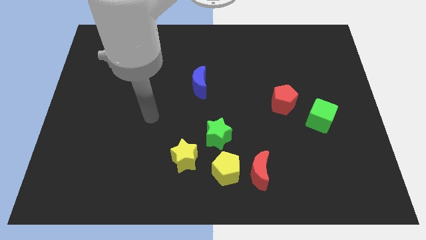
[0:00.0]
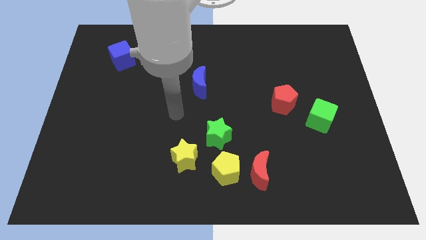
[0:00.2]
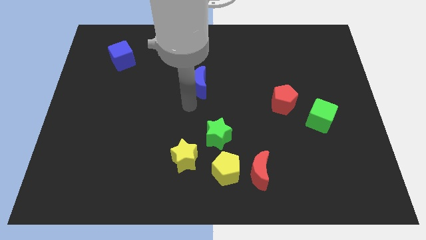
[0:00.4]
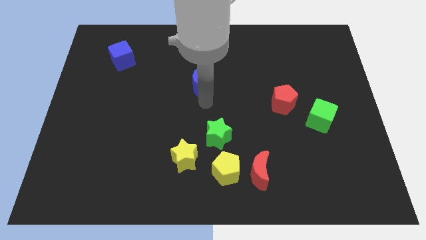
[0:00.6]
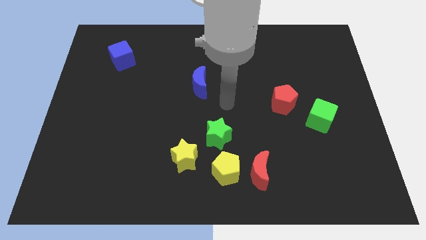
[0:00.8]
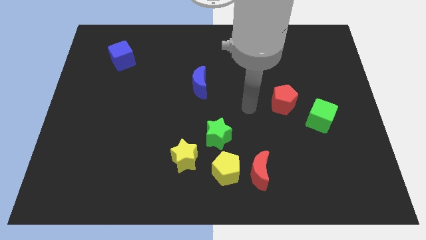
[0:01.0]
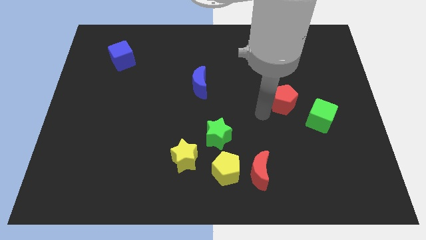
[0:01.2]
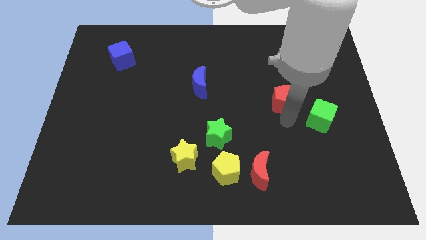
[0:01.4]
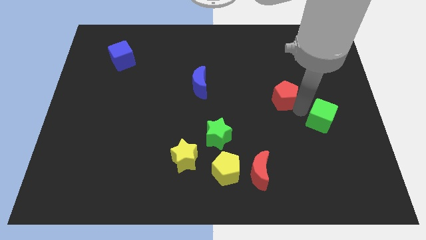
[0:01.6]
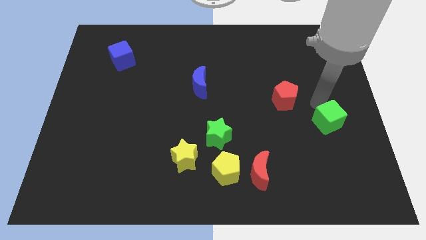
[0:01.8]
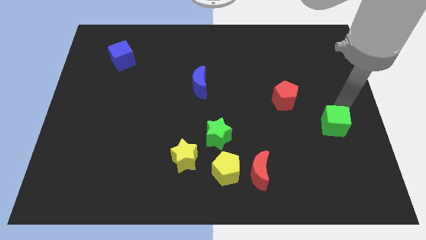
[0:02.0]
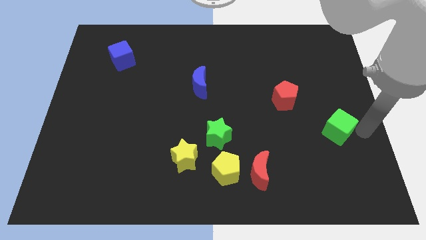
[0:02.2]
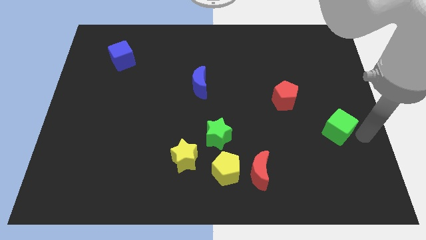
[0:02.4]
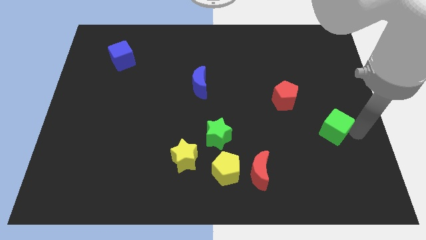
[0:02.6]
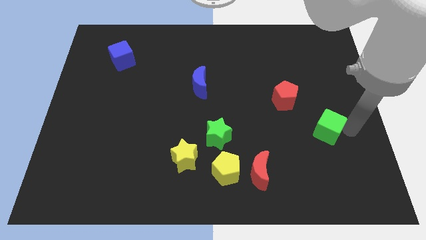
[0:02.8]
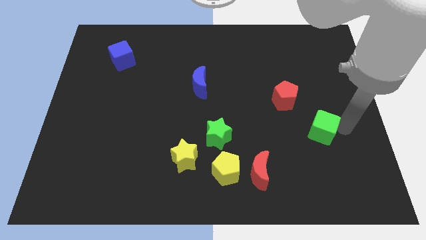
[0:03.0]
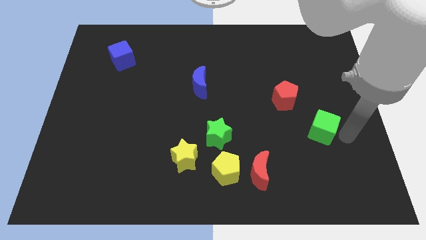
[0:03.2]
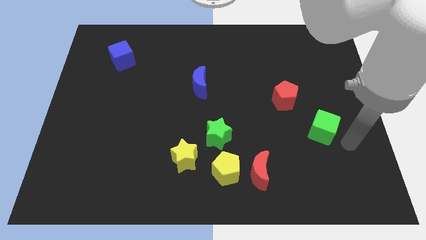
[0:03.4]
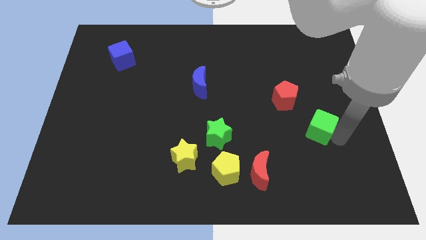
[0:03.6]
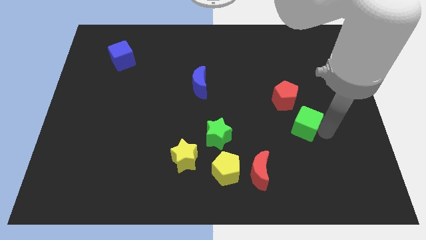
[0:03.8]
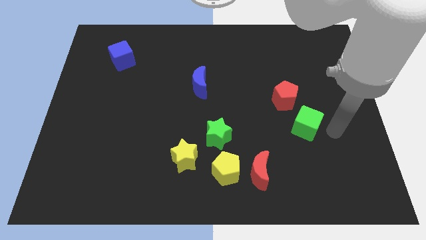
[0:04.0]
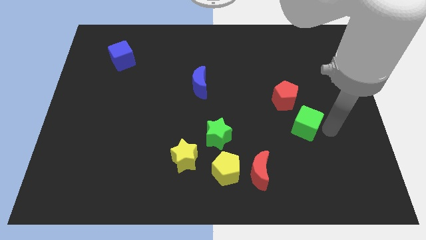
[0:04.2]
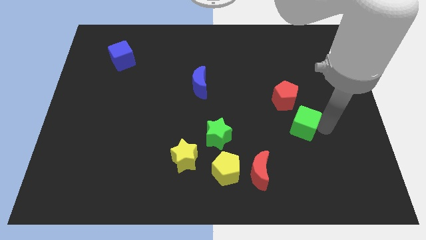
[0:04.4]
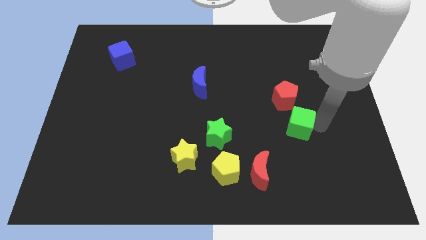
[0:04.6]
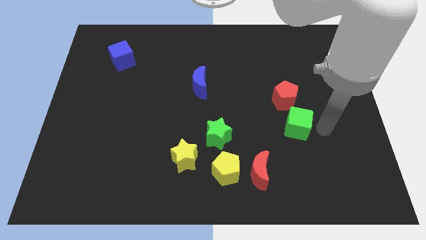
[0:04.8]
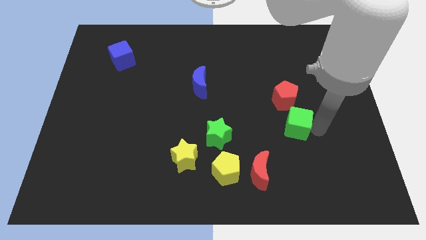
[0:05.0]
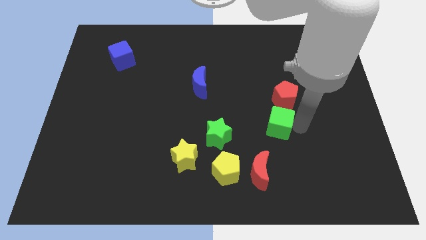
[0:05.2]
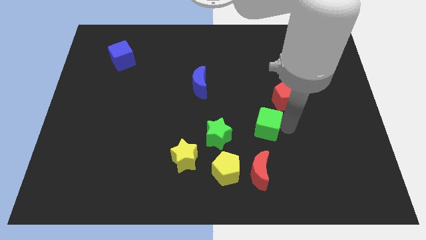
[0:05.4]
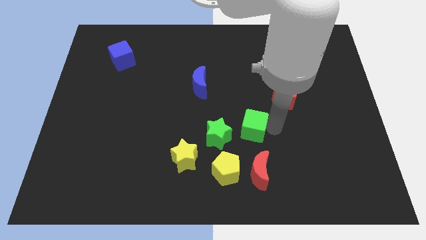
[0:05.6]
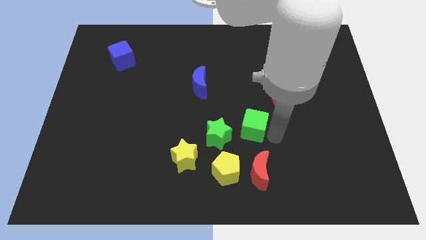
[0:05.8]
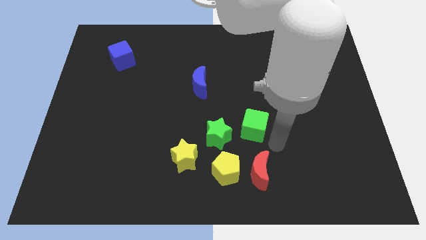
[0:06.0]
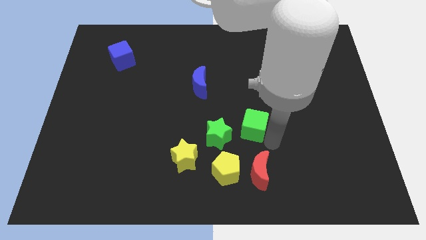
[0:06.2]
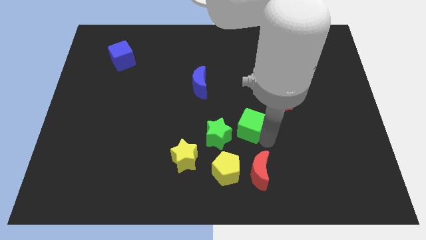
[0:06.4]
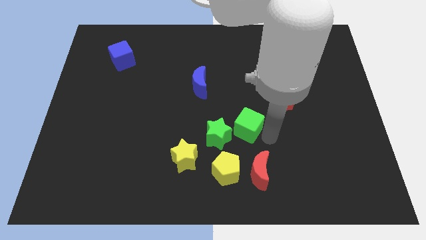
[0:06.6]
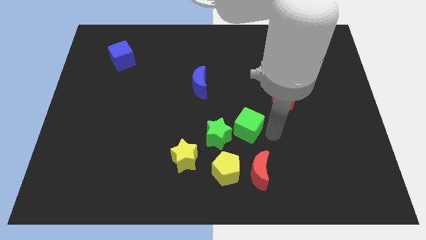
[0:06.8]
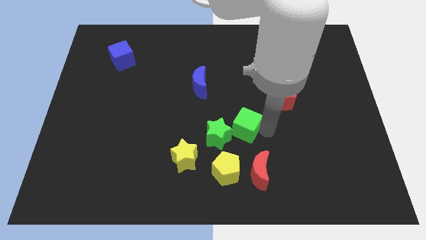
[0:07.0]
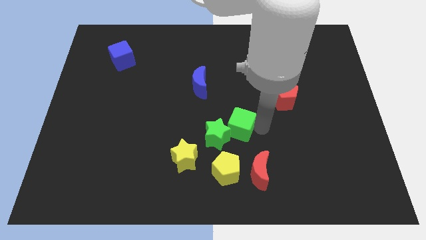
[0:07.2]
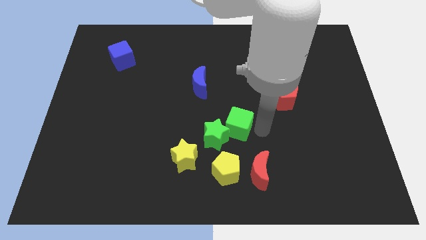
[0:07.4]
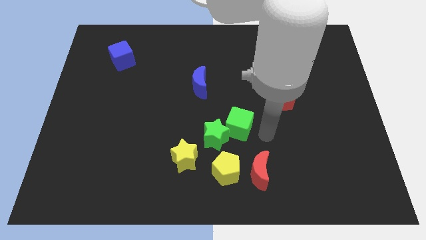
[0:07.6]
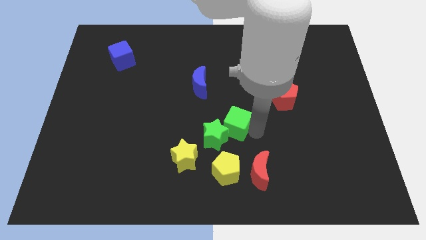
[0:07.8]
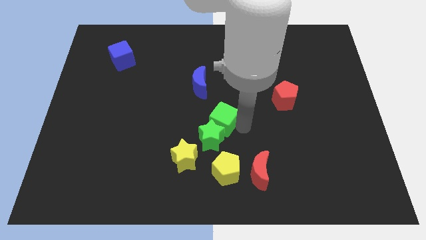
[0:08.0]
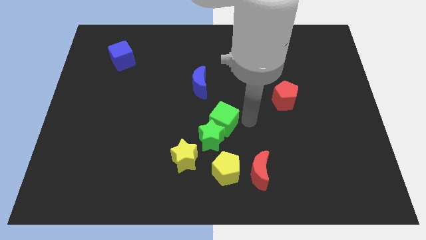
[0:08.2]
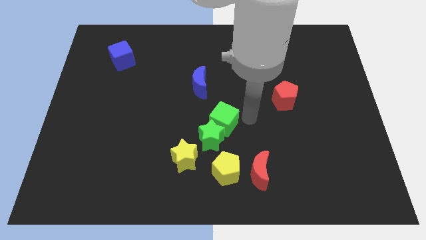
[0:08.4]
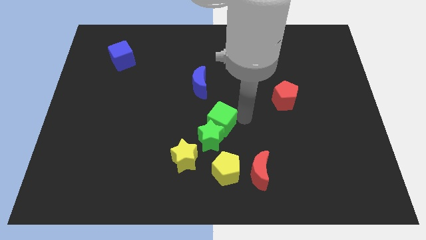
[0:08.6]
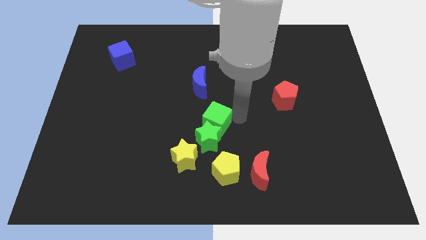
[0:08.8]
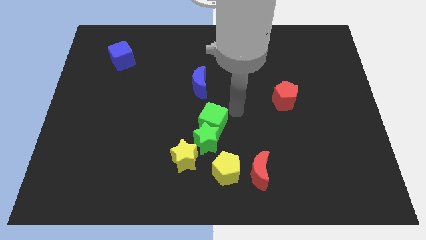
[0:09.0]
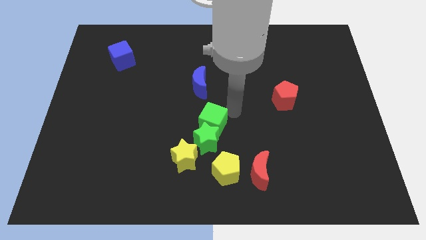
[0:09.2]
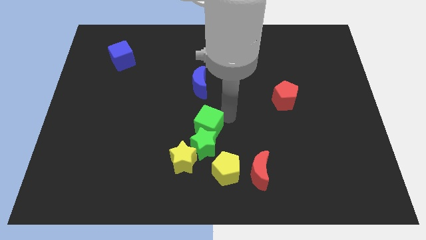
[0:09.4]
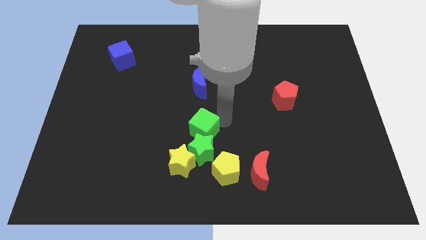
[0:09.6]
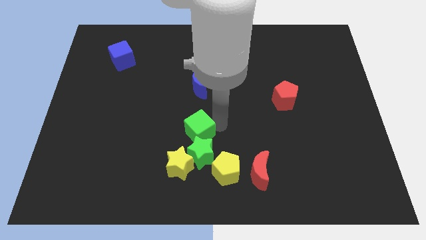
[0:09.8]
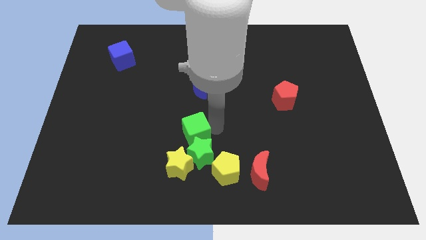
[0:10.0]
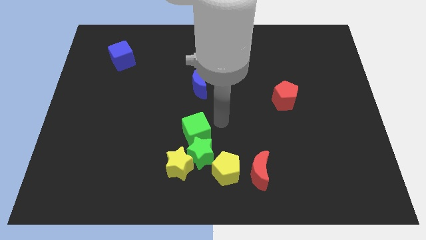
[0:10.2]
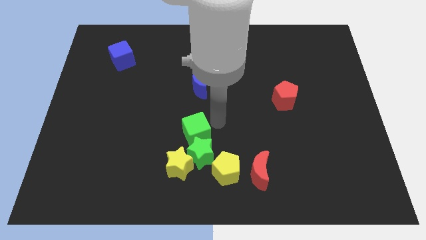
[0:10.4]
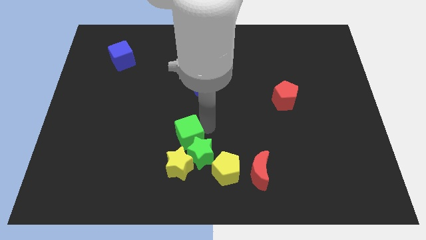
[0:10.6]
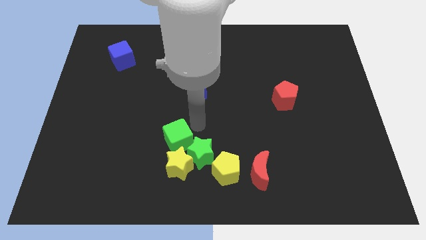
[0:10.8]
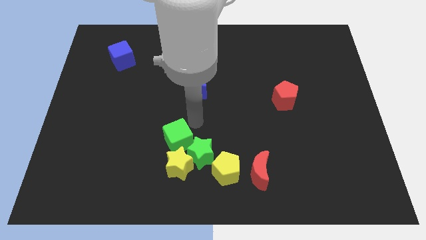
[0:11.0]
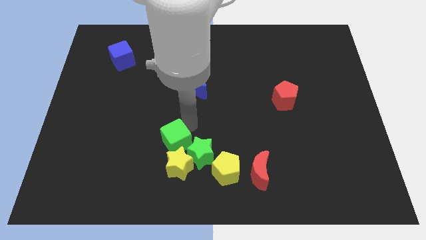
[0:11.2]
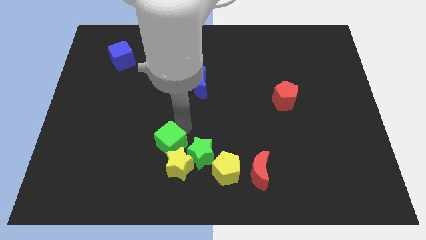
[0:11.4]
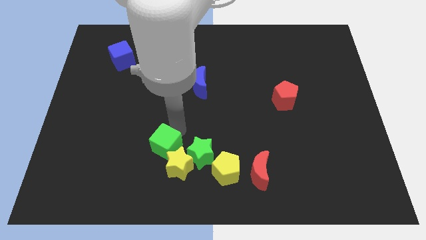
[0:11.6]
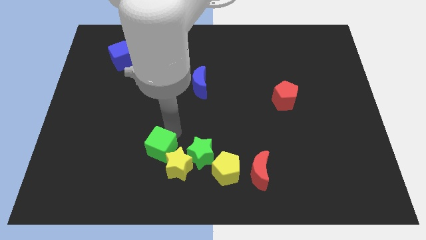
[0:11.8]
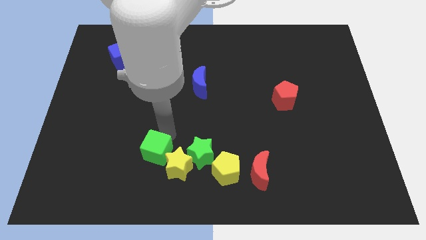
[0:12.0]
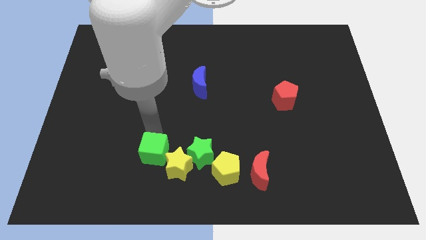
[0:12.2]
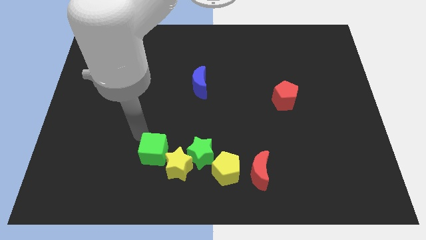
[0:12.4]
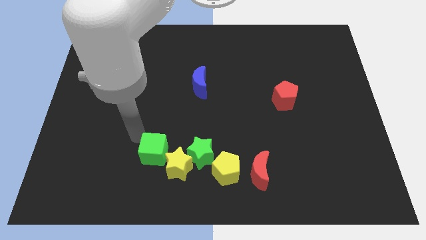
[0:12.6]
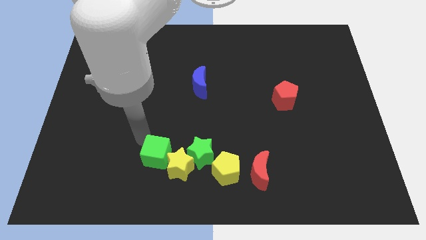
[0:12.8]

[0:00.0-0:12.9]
put the green cube just left of the yellow pentagon

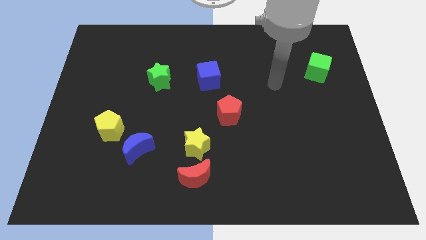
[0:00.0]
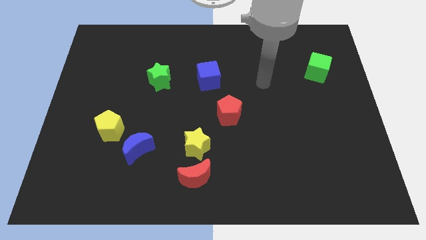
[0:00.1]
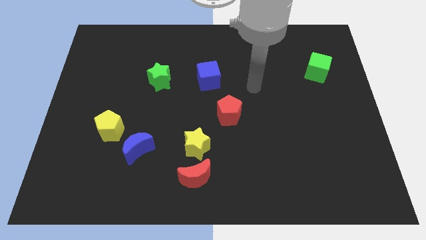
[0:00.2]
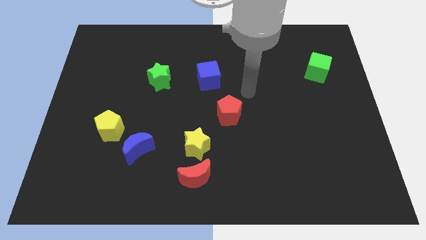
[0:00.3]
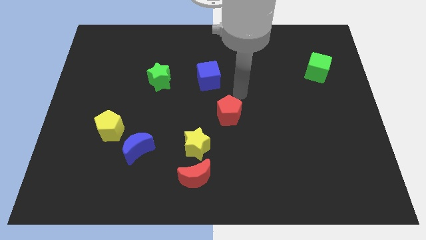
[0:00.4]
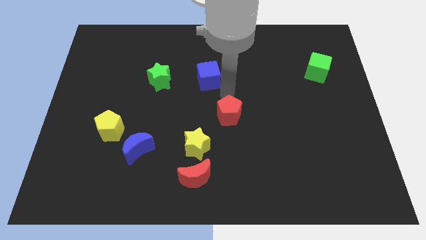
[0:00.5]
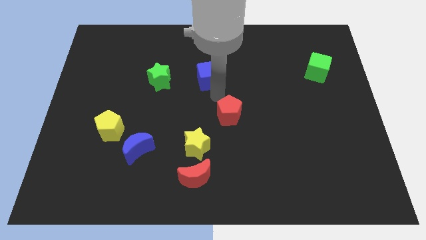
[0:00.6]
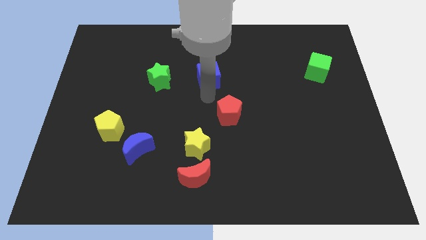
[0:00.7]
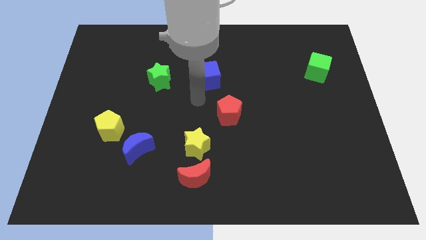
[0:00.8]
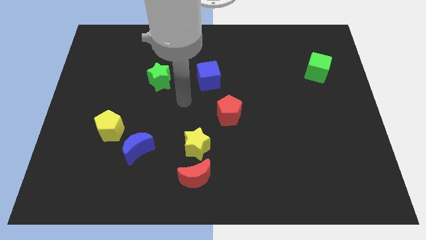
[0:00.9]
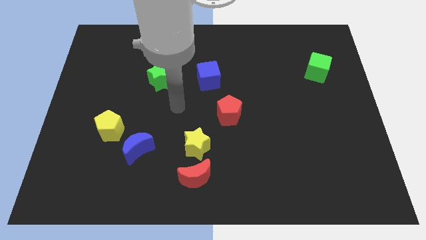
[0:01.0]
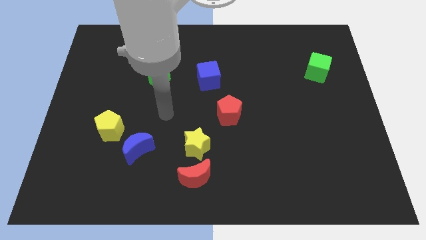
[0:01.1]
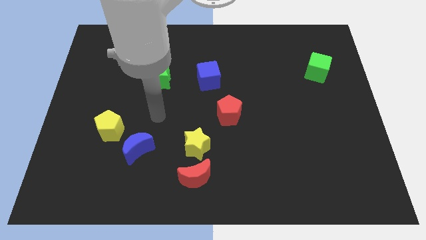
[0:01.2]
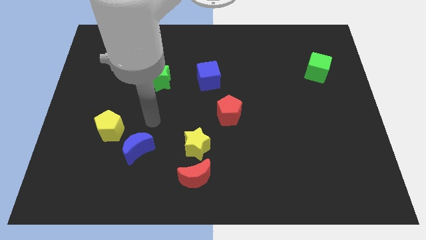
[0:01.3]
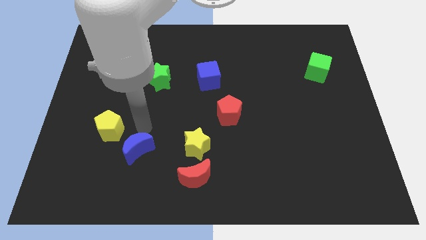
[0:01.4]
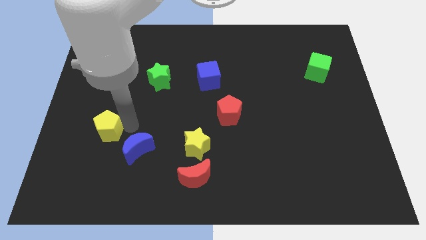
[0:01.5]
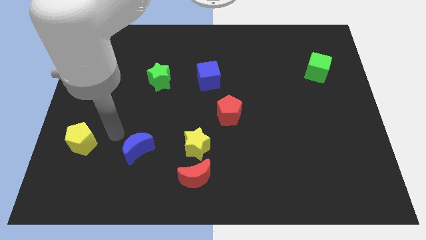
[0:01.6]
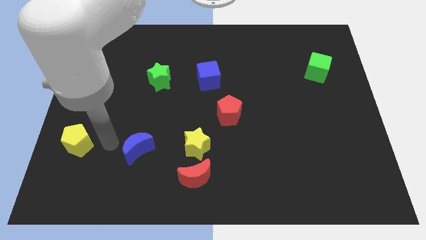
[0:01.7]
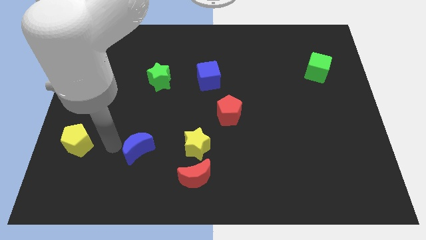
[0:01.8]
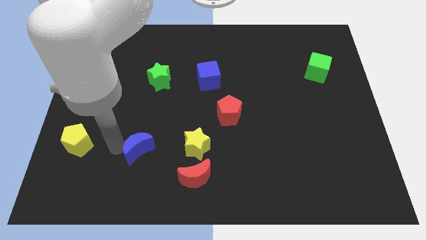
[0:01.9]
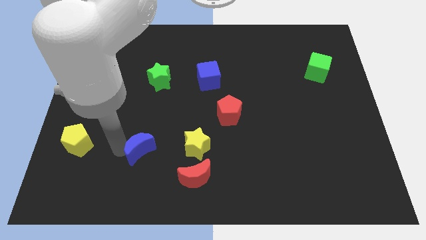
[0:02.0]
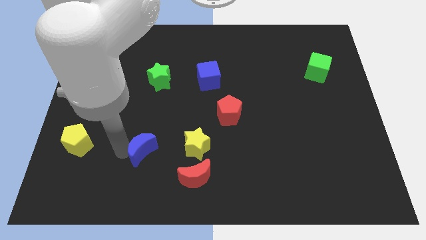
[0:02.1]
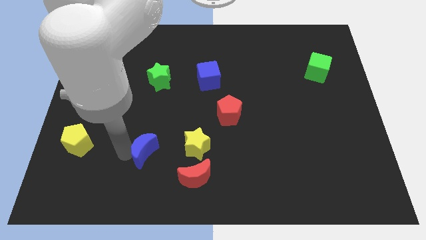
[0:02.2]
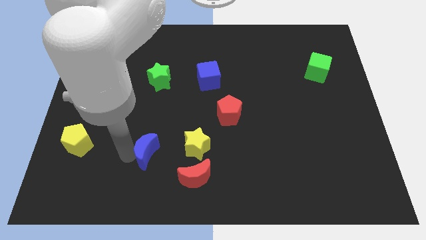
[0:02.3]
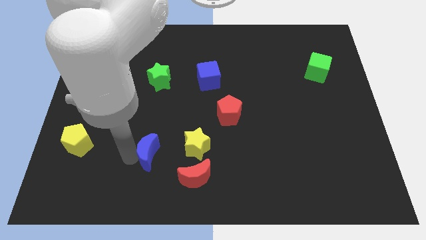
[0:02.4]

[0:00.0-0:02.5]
move the blue moon to the top left of the red moon
